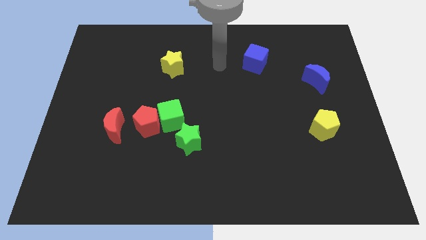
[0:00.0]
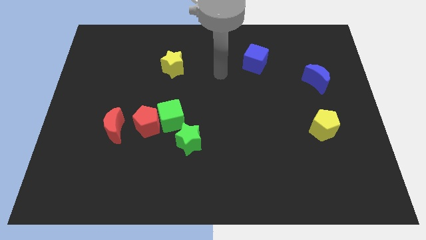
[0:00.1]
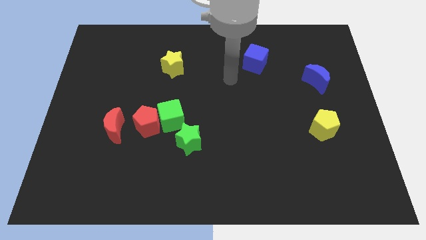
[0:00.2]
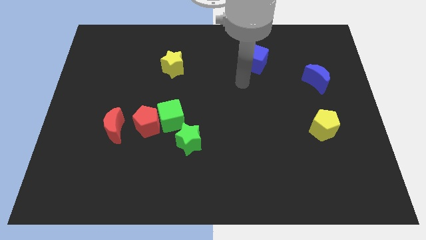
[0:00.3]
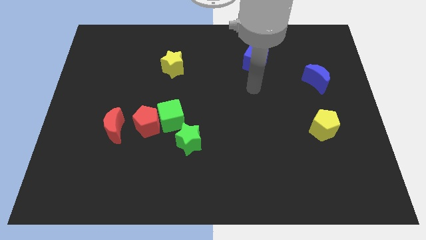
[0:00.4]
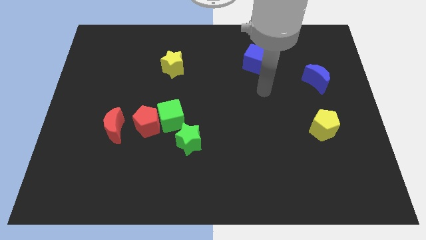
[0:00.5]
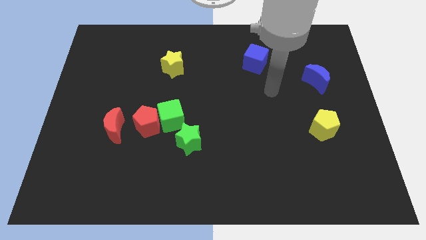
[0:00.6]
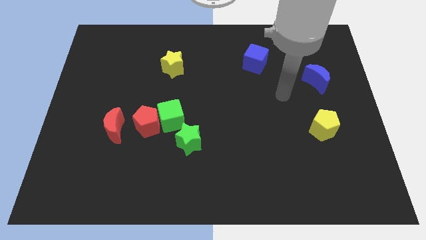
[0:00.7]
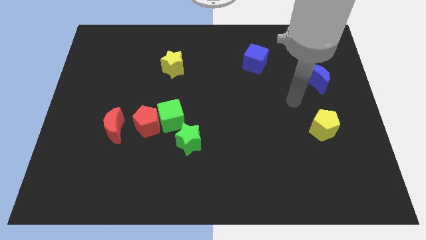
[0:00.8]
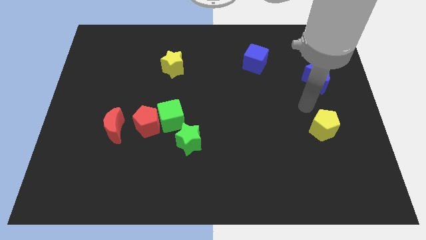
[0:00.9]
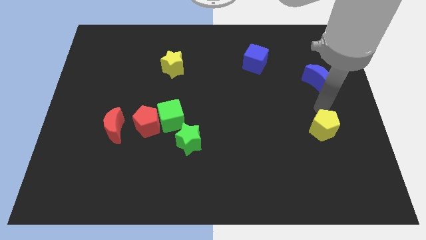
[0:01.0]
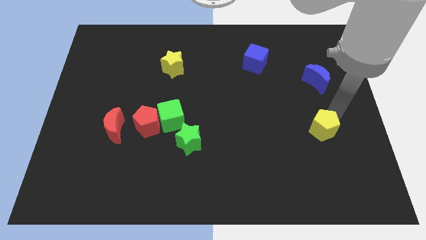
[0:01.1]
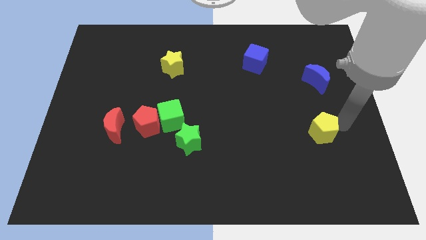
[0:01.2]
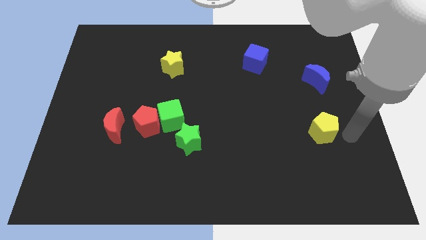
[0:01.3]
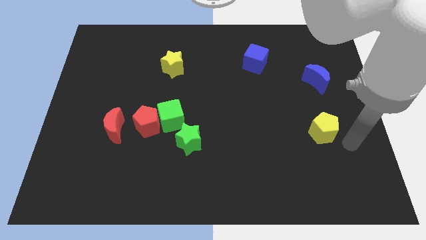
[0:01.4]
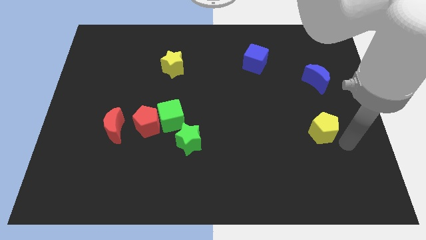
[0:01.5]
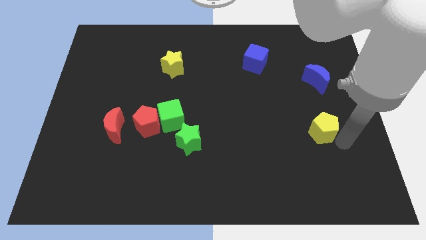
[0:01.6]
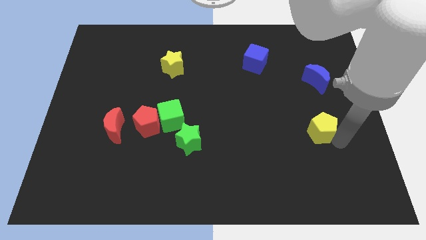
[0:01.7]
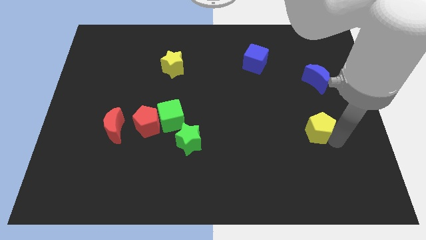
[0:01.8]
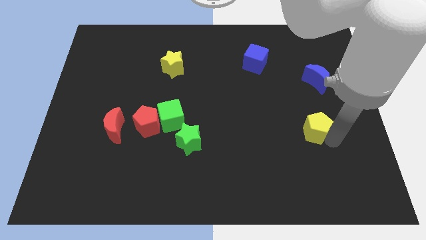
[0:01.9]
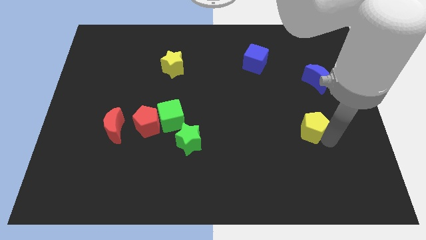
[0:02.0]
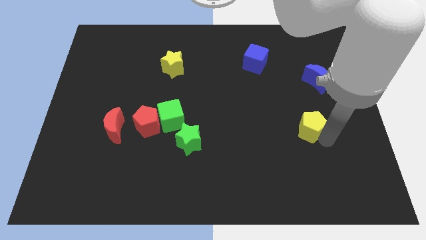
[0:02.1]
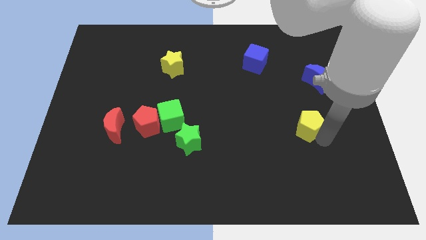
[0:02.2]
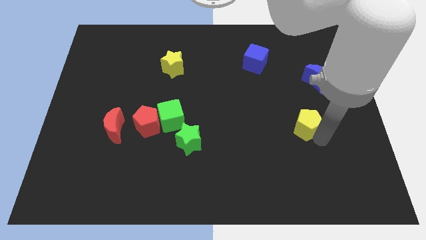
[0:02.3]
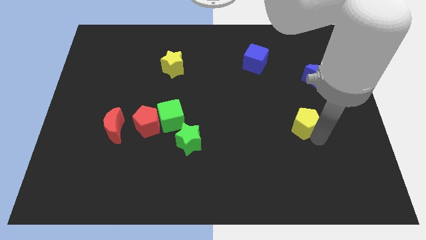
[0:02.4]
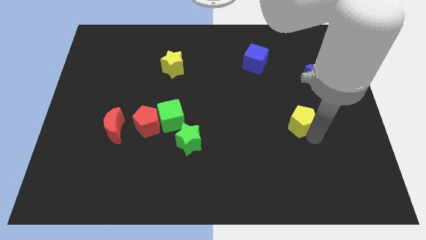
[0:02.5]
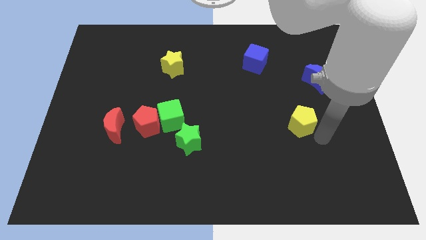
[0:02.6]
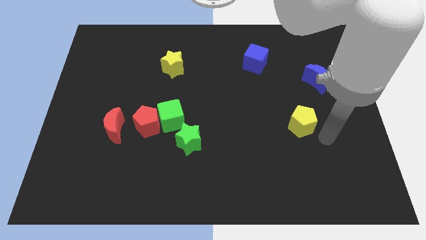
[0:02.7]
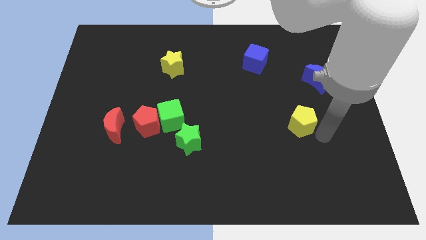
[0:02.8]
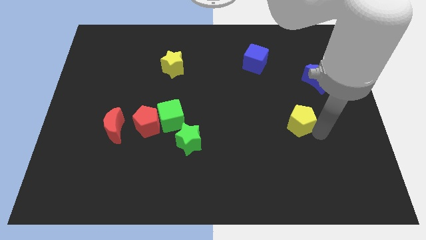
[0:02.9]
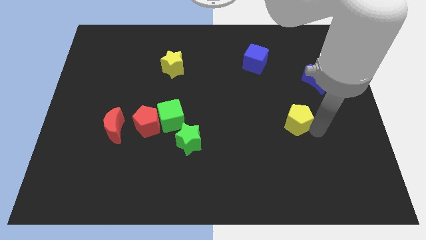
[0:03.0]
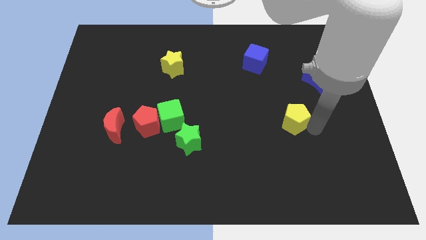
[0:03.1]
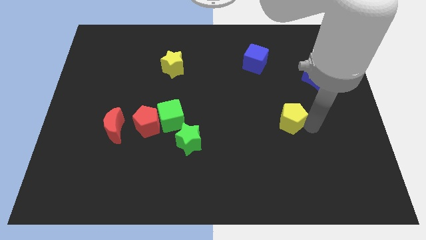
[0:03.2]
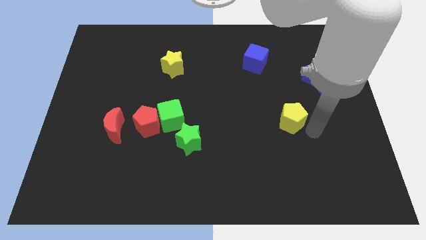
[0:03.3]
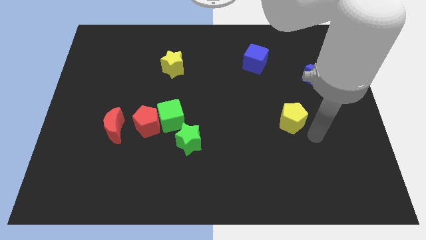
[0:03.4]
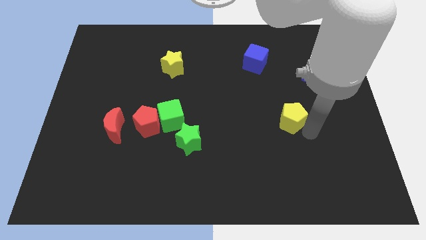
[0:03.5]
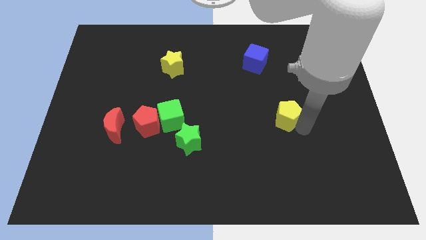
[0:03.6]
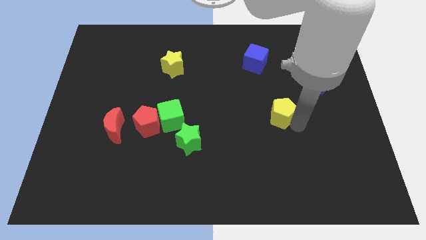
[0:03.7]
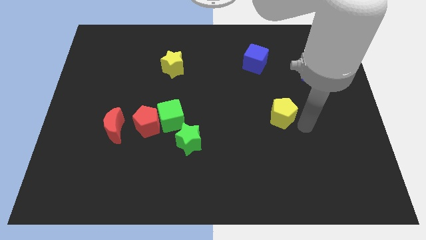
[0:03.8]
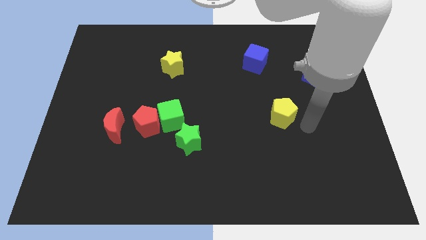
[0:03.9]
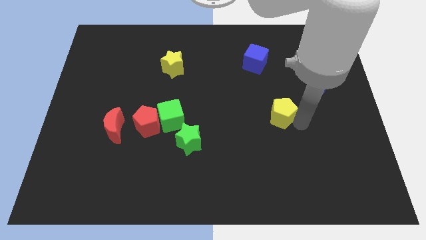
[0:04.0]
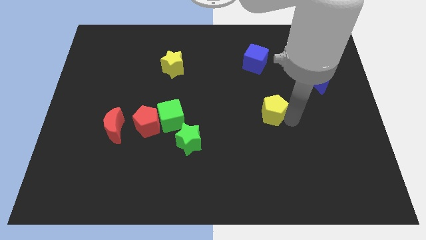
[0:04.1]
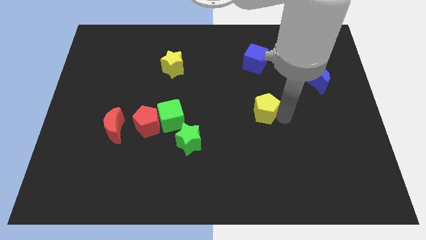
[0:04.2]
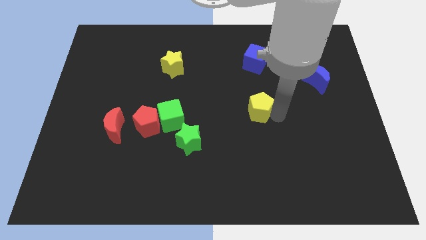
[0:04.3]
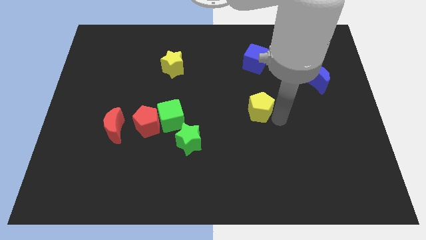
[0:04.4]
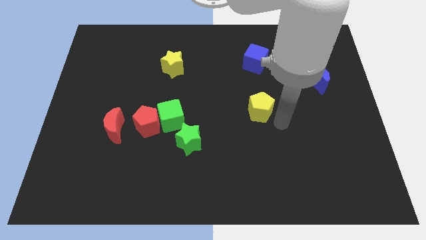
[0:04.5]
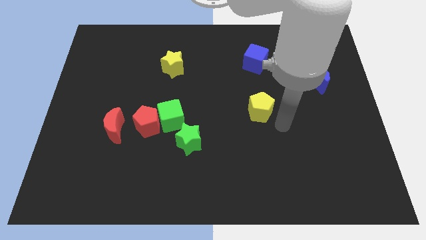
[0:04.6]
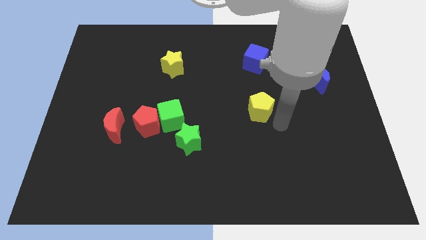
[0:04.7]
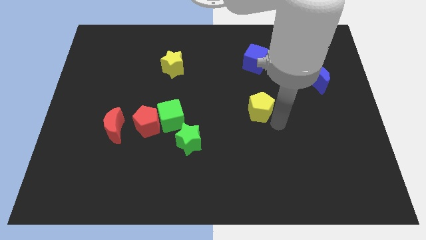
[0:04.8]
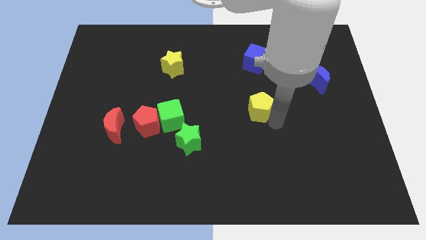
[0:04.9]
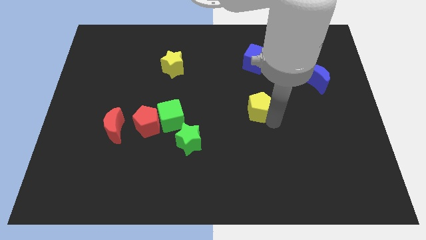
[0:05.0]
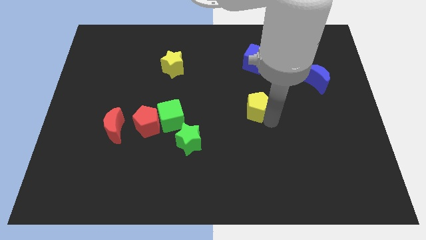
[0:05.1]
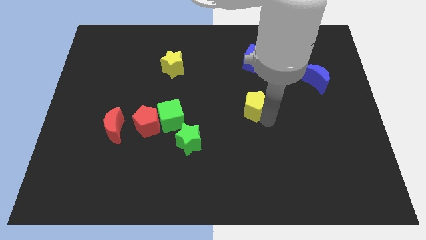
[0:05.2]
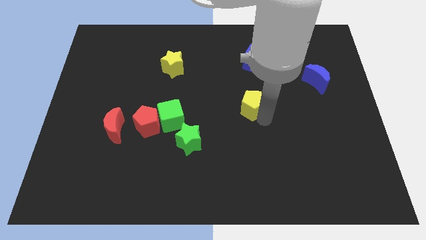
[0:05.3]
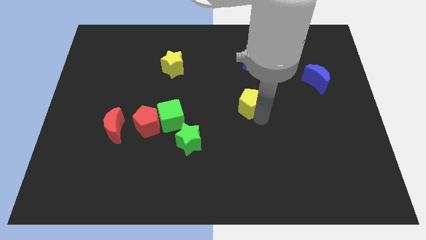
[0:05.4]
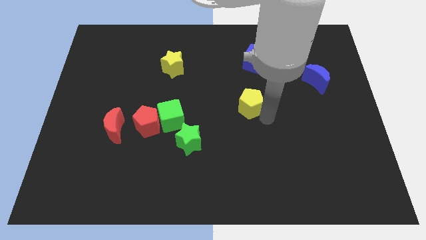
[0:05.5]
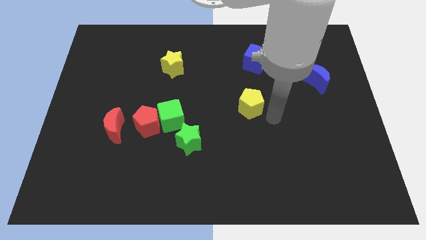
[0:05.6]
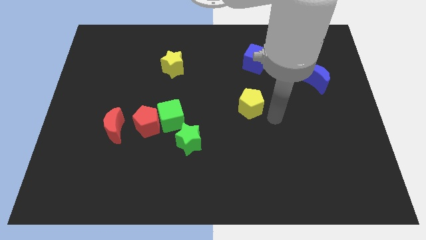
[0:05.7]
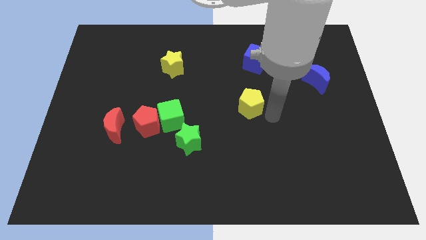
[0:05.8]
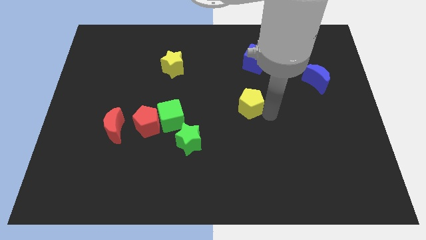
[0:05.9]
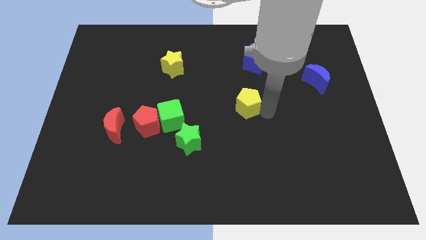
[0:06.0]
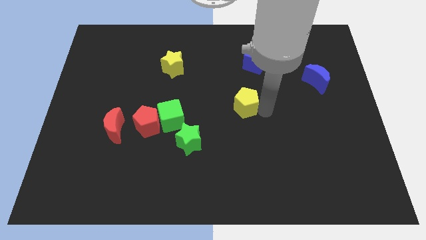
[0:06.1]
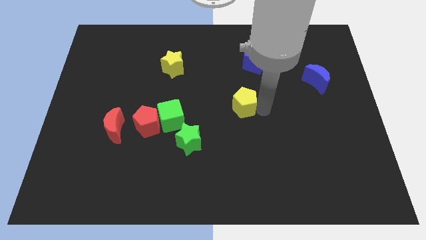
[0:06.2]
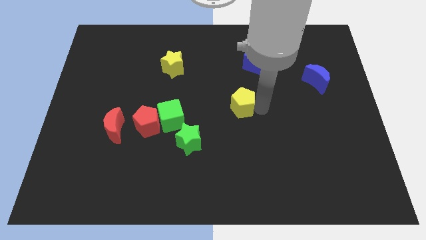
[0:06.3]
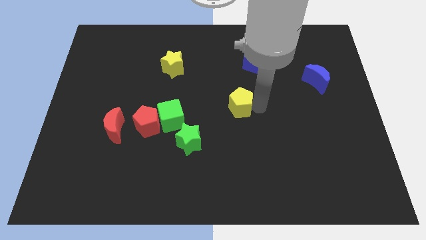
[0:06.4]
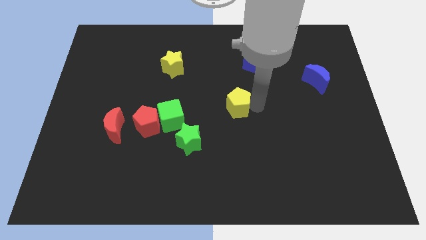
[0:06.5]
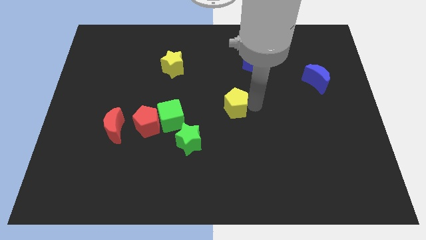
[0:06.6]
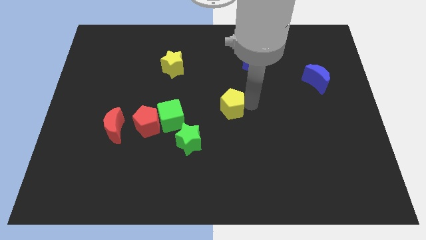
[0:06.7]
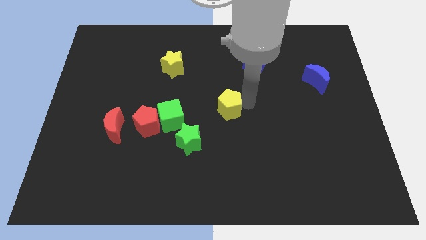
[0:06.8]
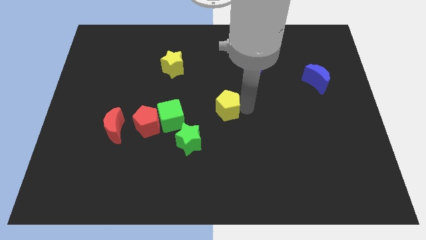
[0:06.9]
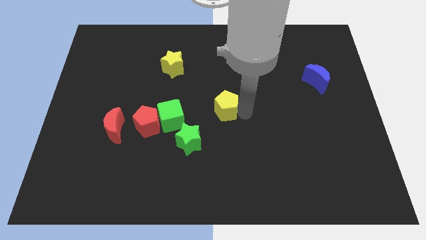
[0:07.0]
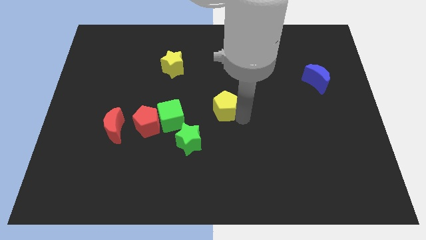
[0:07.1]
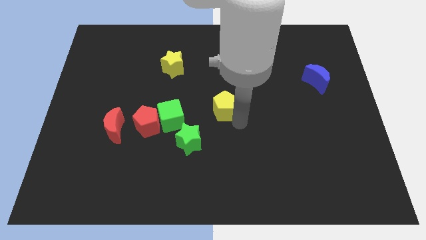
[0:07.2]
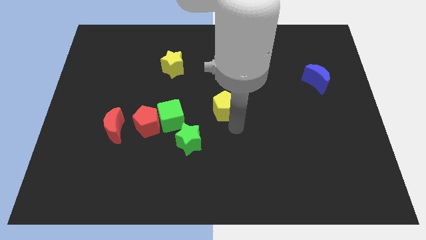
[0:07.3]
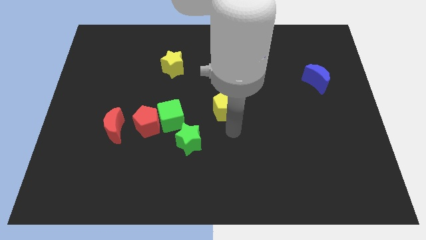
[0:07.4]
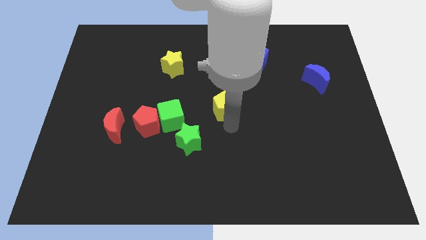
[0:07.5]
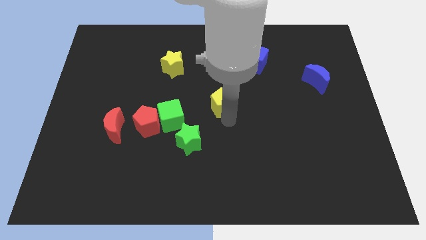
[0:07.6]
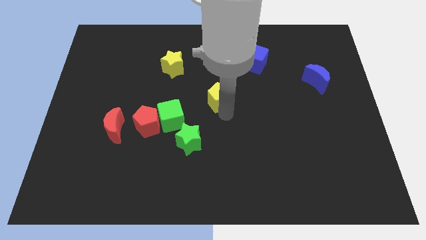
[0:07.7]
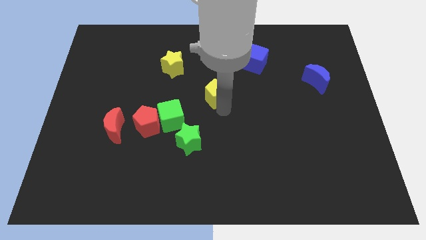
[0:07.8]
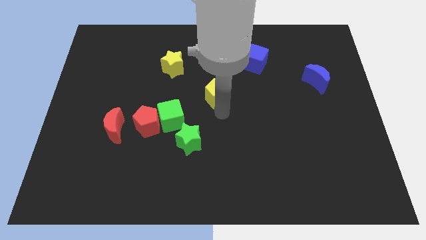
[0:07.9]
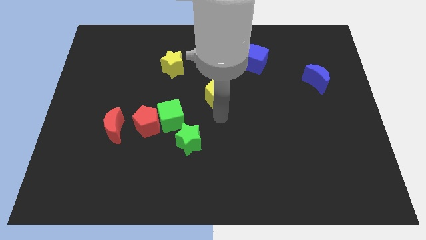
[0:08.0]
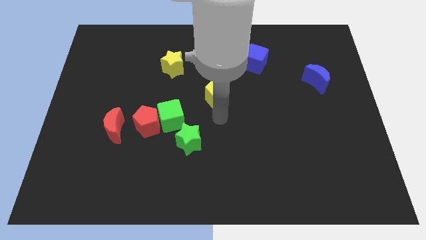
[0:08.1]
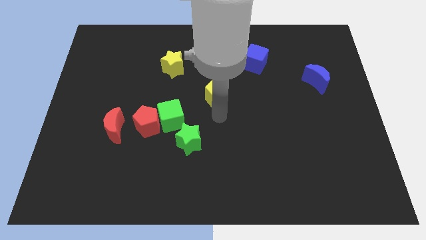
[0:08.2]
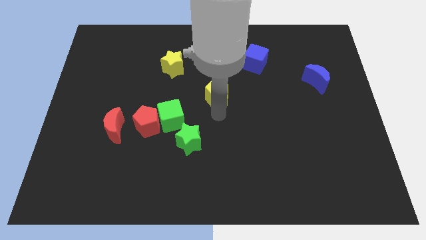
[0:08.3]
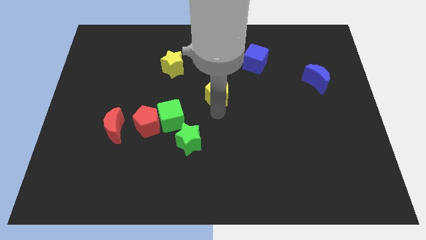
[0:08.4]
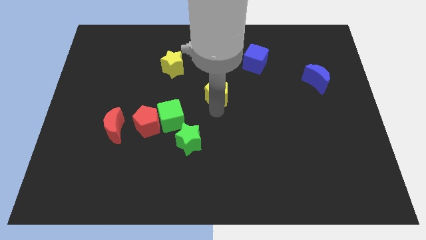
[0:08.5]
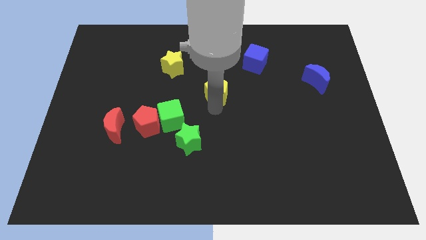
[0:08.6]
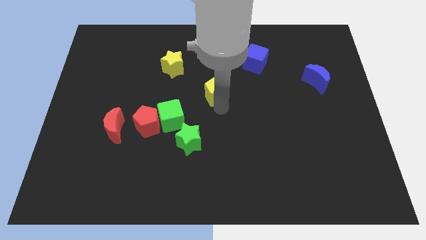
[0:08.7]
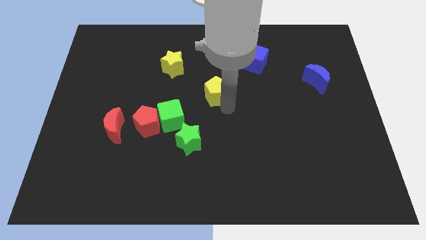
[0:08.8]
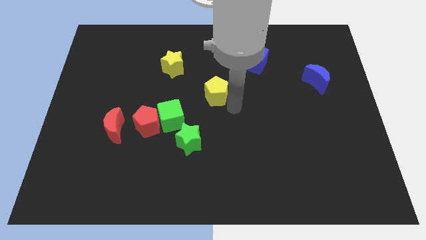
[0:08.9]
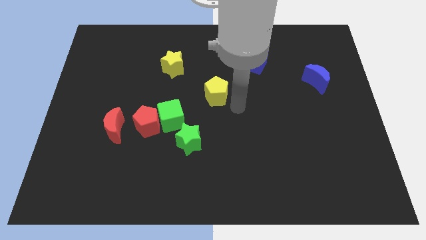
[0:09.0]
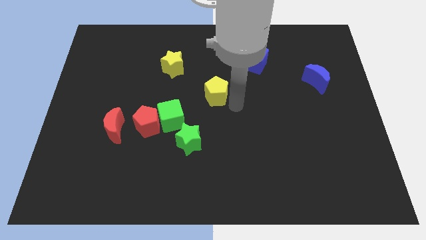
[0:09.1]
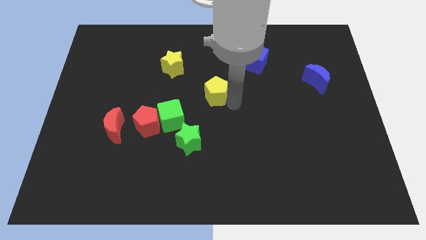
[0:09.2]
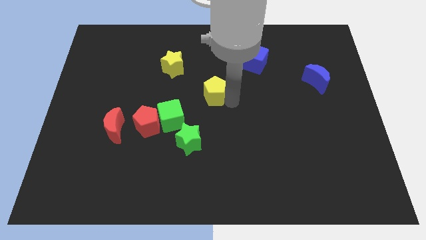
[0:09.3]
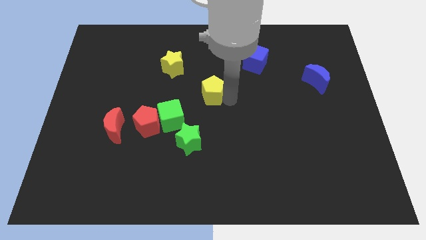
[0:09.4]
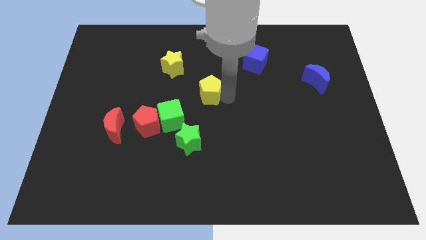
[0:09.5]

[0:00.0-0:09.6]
push the yellow pentagon to the bottom right side of the yellow star
